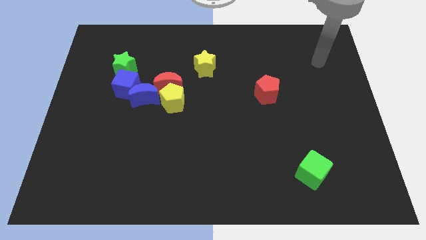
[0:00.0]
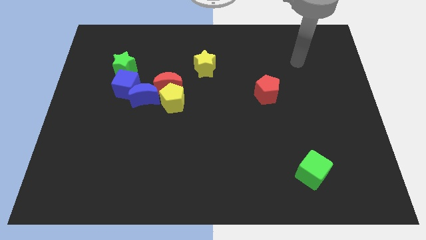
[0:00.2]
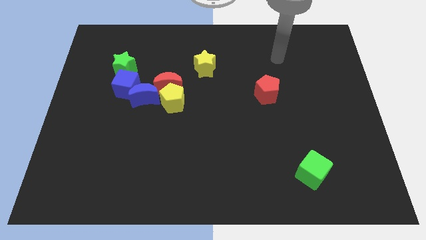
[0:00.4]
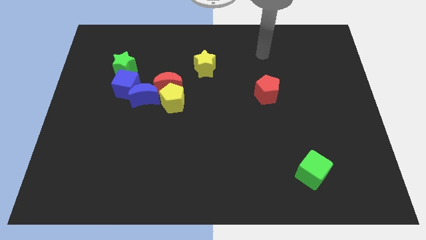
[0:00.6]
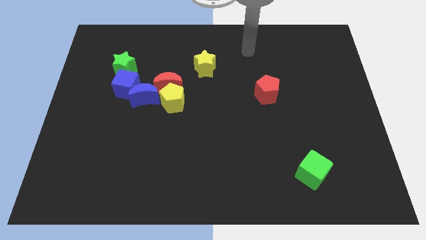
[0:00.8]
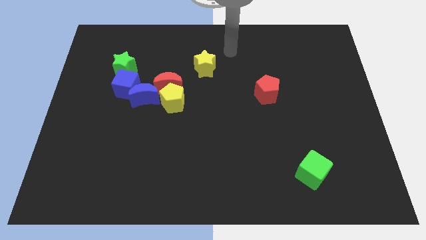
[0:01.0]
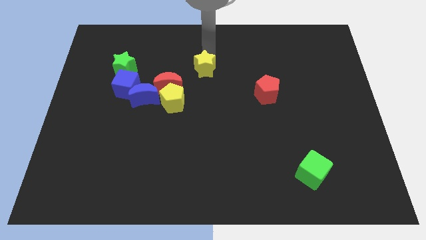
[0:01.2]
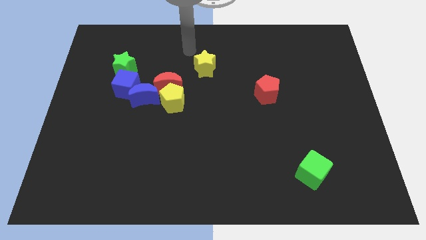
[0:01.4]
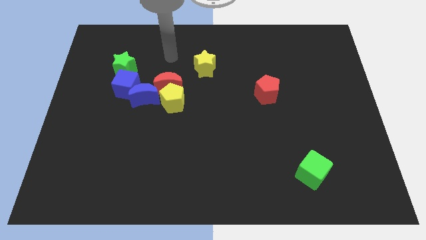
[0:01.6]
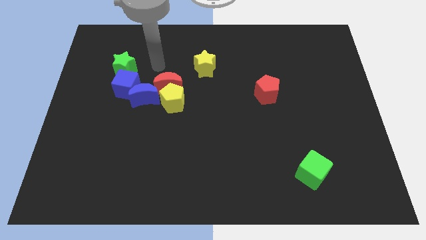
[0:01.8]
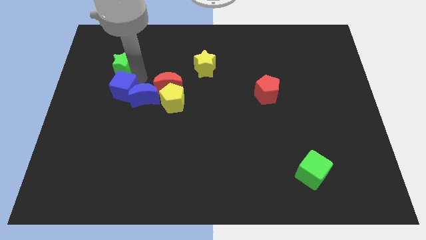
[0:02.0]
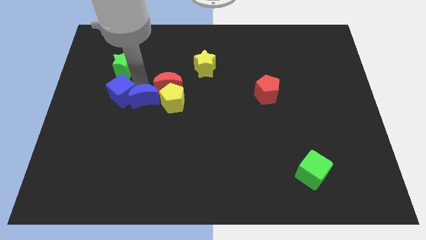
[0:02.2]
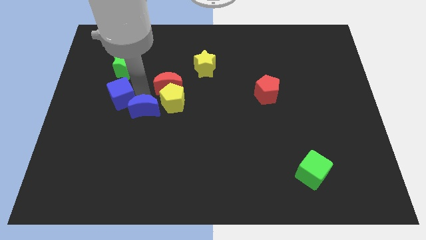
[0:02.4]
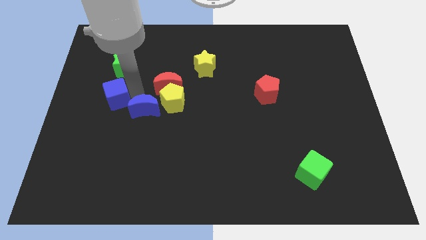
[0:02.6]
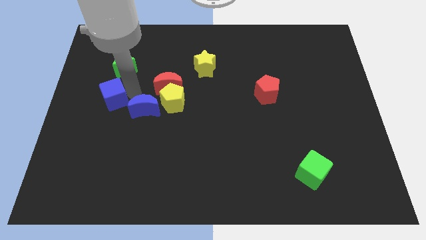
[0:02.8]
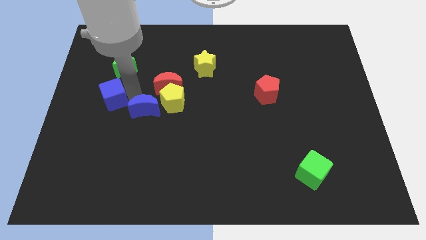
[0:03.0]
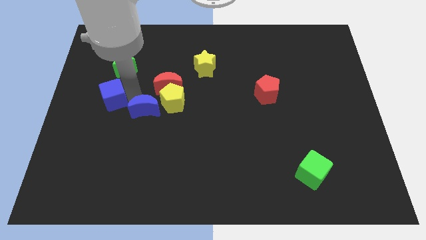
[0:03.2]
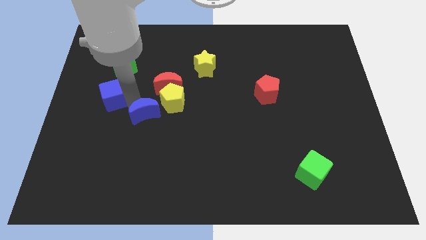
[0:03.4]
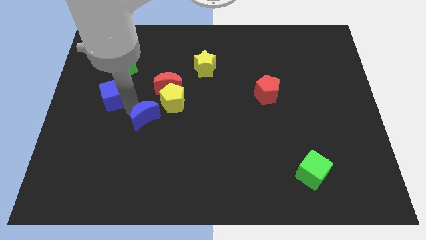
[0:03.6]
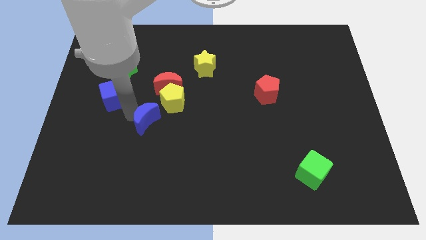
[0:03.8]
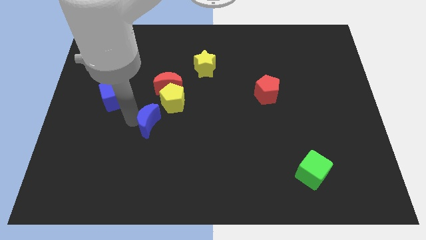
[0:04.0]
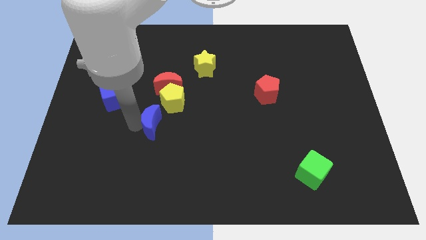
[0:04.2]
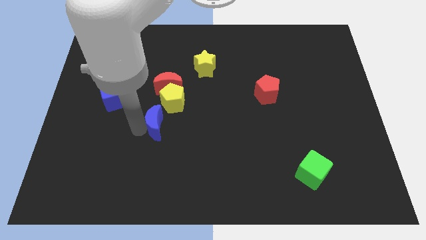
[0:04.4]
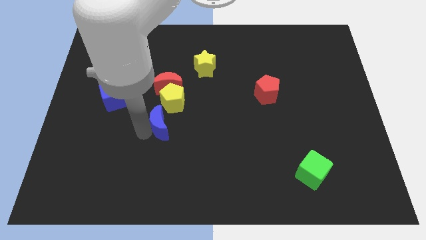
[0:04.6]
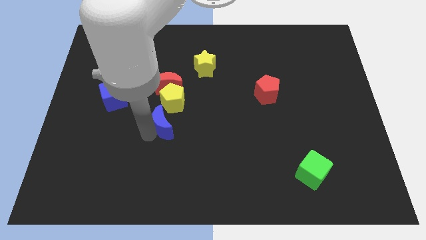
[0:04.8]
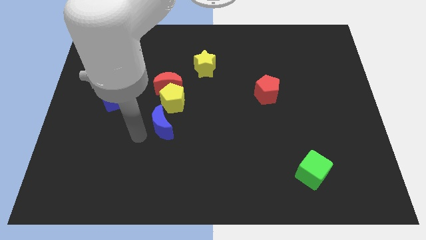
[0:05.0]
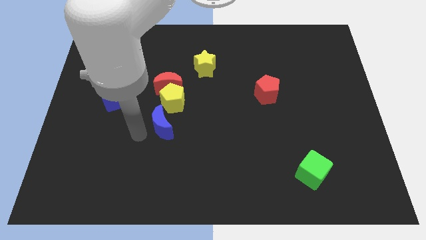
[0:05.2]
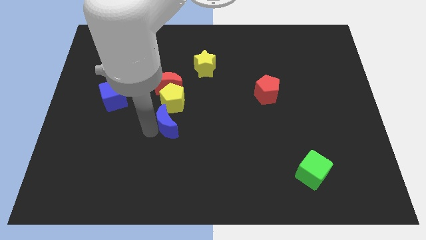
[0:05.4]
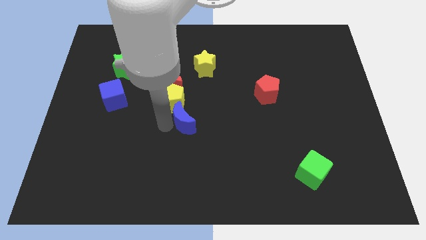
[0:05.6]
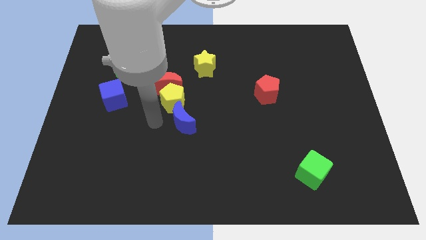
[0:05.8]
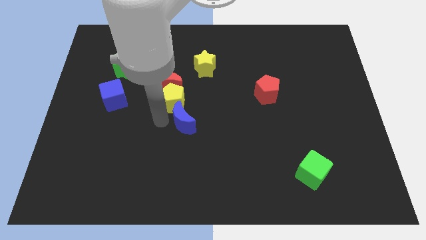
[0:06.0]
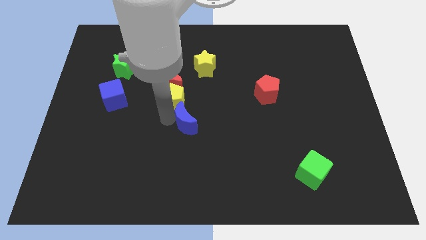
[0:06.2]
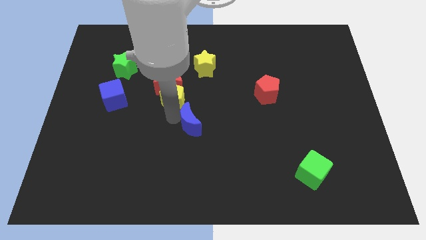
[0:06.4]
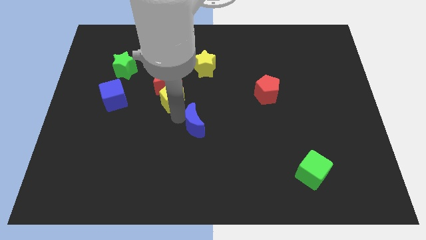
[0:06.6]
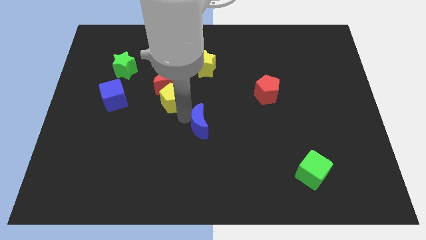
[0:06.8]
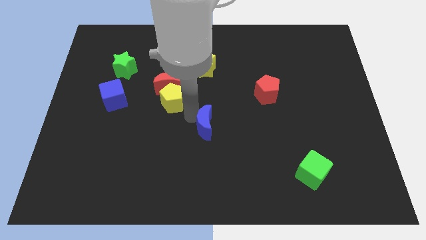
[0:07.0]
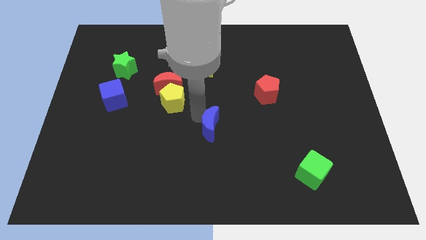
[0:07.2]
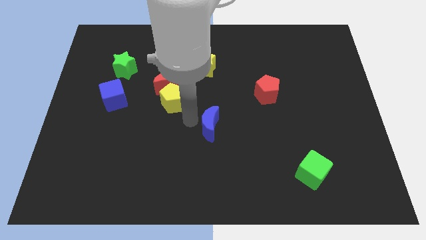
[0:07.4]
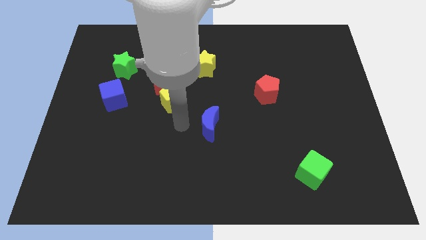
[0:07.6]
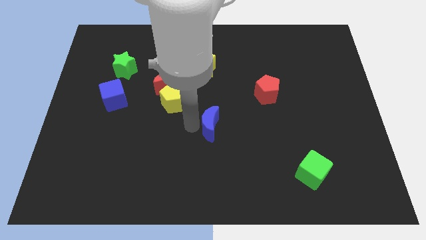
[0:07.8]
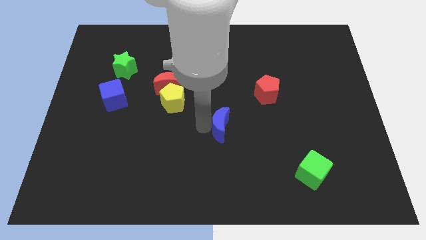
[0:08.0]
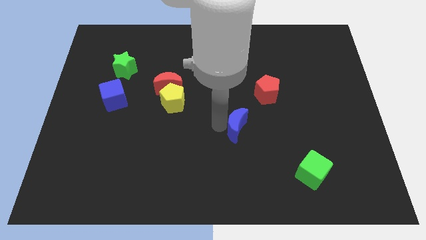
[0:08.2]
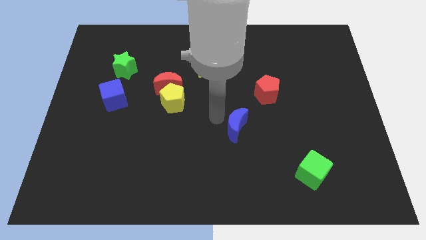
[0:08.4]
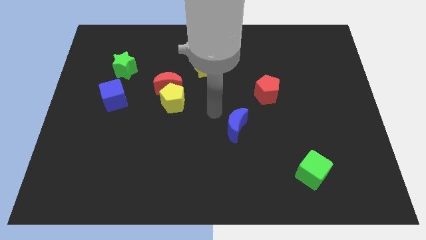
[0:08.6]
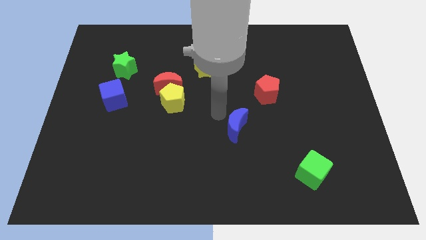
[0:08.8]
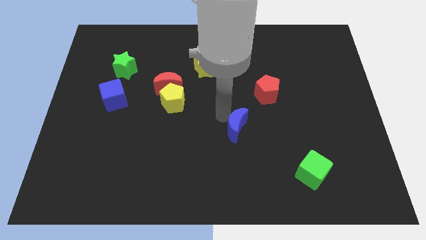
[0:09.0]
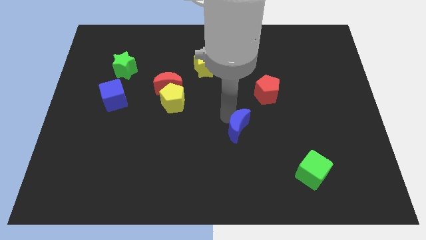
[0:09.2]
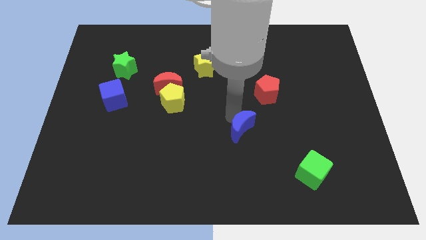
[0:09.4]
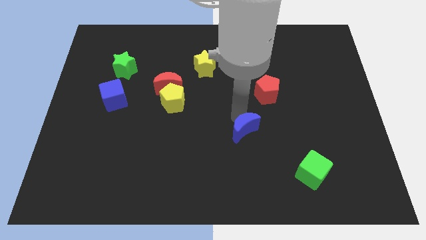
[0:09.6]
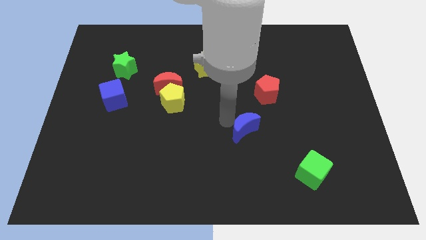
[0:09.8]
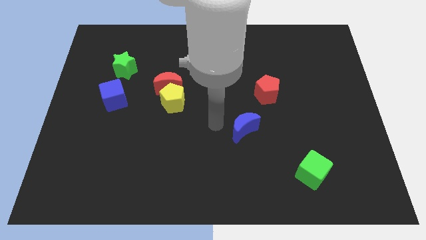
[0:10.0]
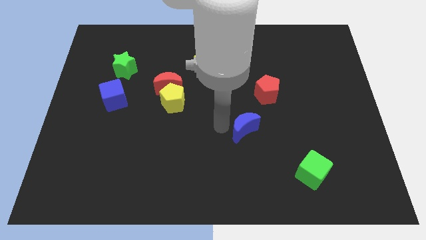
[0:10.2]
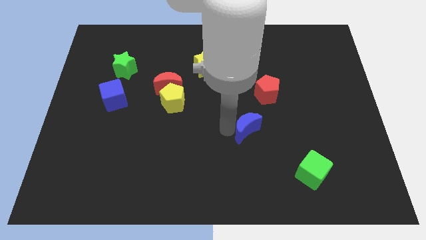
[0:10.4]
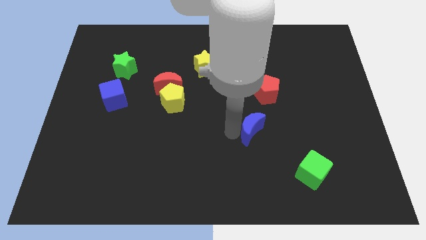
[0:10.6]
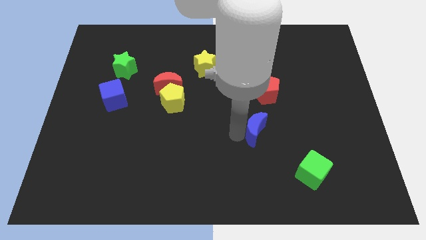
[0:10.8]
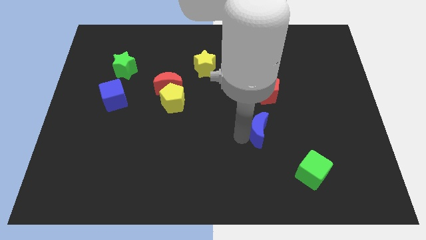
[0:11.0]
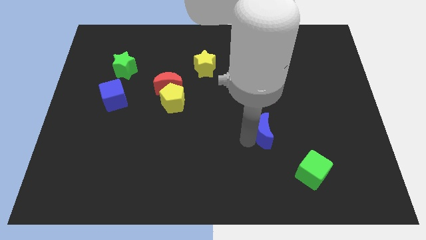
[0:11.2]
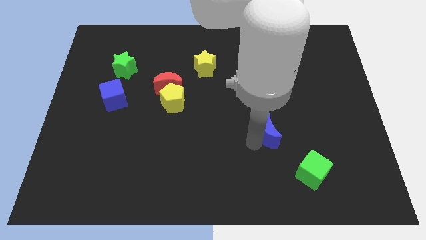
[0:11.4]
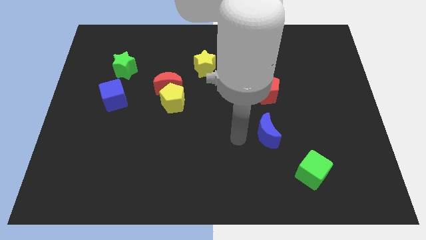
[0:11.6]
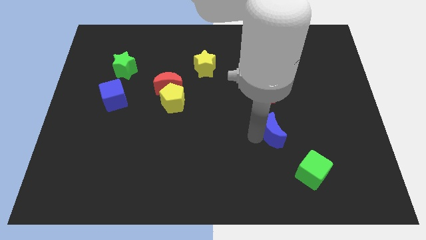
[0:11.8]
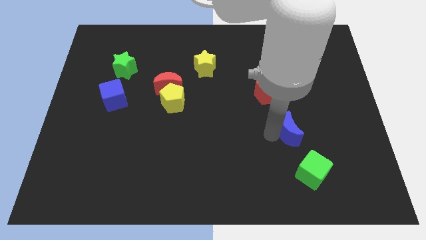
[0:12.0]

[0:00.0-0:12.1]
push the blue moon above the green cube
